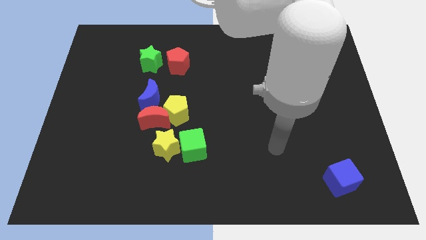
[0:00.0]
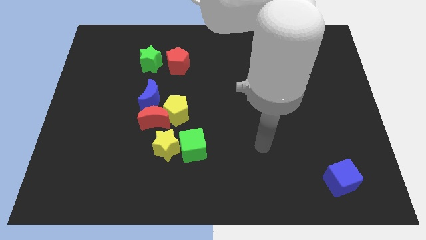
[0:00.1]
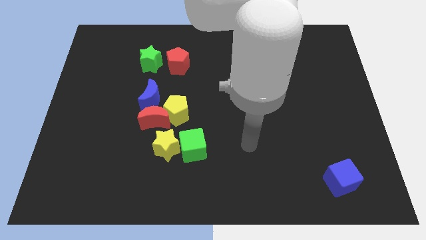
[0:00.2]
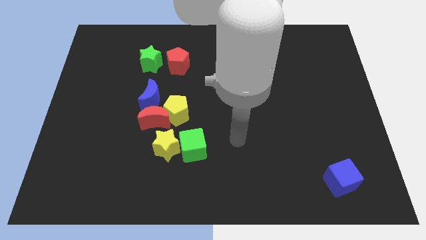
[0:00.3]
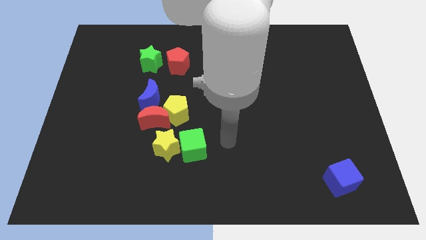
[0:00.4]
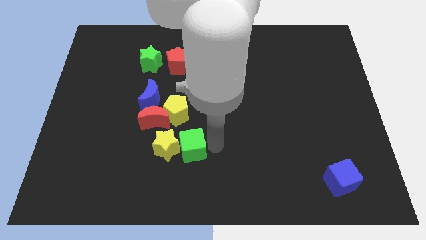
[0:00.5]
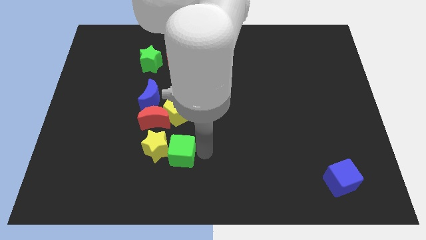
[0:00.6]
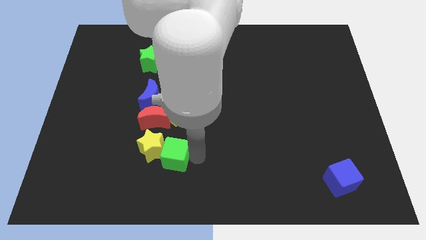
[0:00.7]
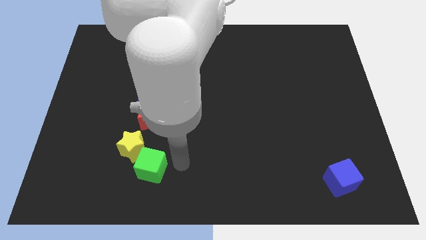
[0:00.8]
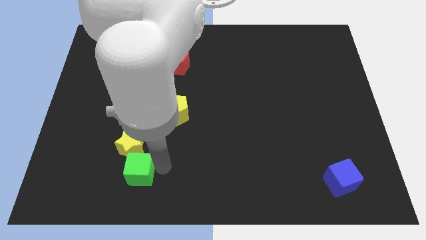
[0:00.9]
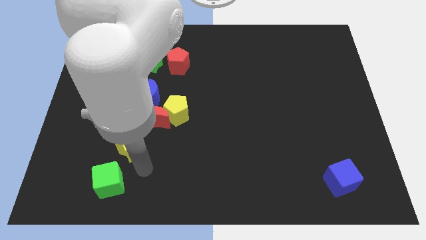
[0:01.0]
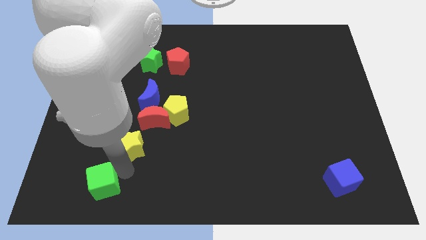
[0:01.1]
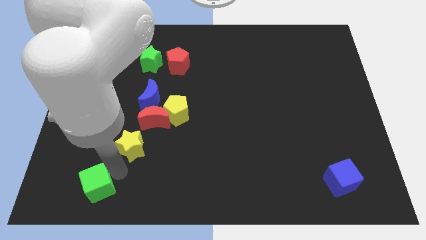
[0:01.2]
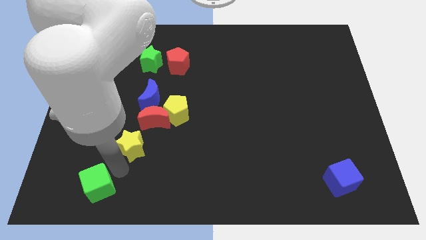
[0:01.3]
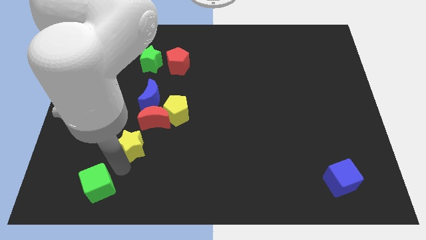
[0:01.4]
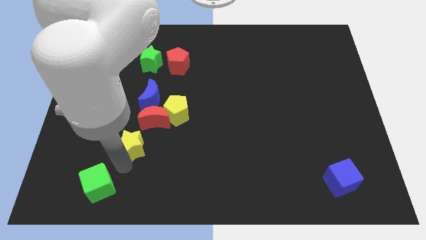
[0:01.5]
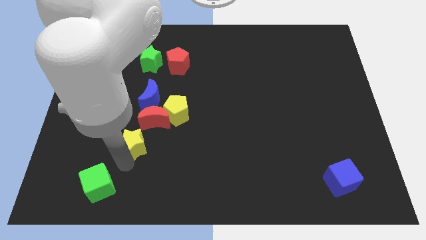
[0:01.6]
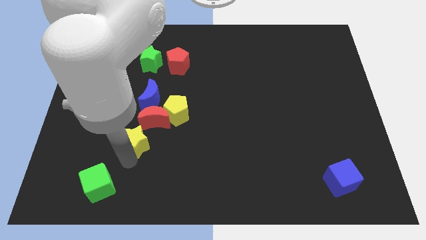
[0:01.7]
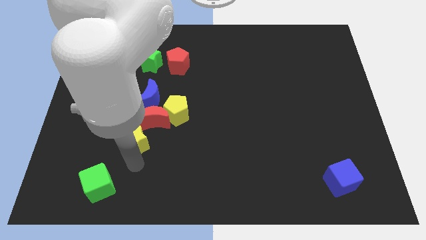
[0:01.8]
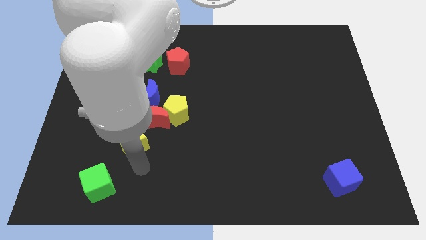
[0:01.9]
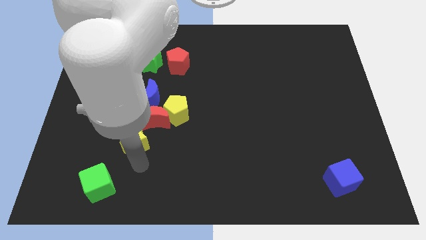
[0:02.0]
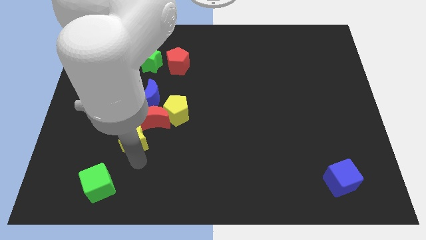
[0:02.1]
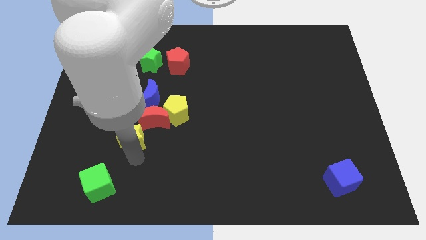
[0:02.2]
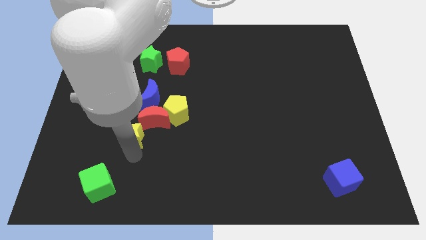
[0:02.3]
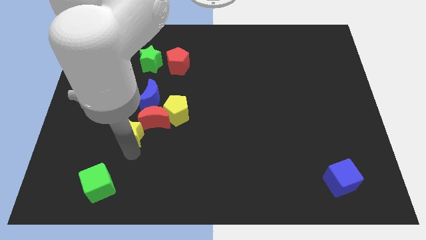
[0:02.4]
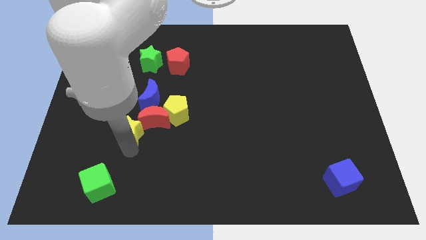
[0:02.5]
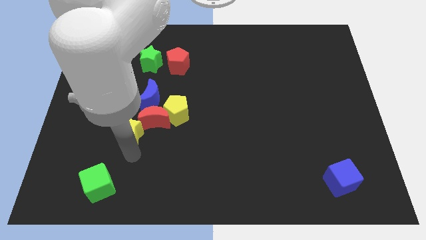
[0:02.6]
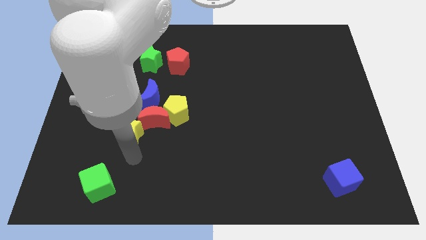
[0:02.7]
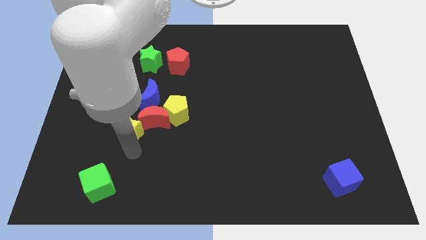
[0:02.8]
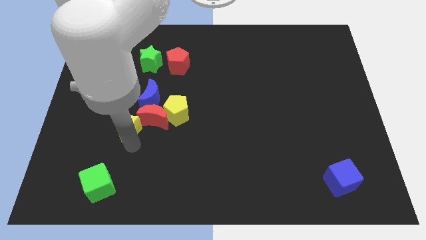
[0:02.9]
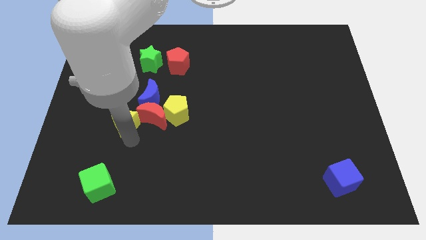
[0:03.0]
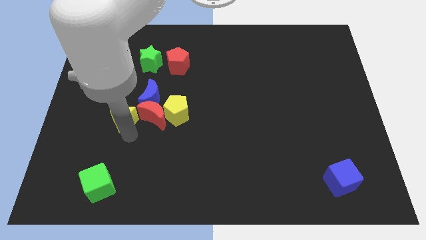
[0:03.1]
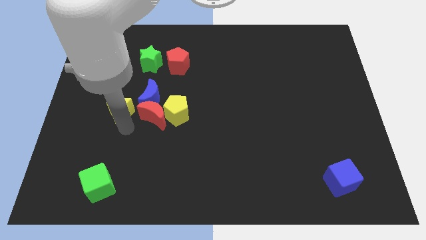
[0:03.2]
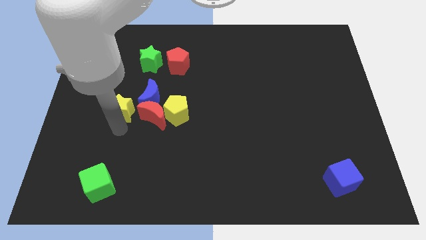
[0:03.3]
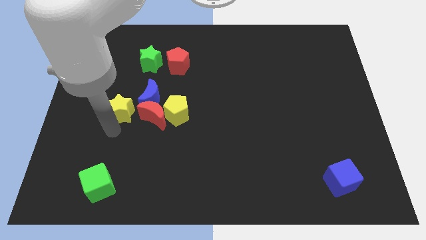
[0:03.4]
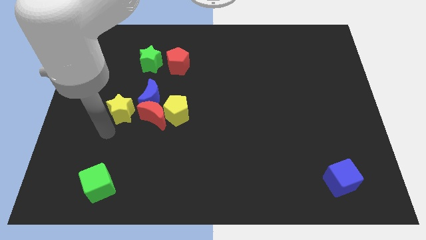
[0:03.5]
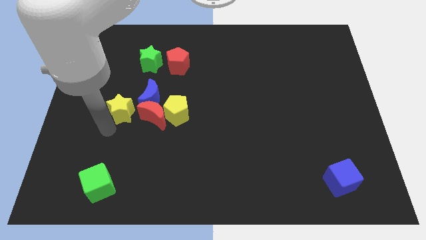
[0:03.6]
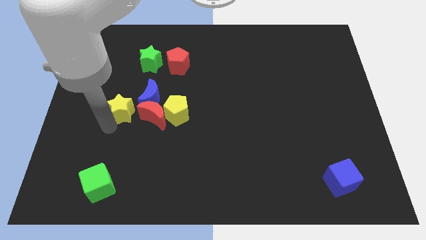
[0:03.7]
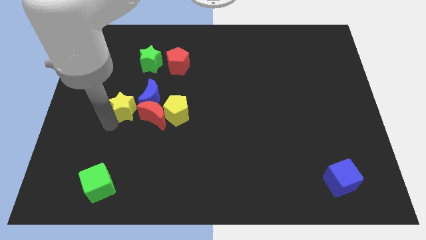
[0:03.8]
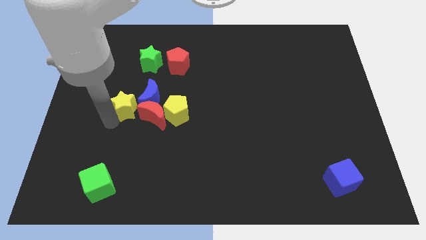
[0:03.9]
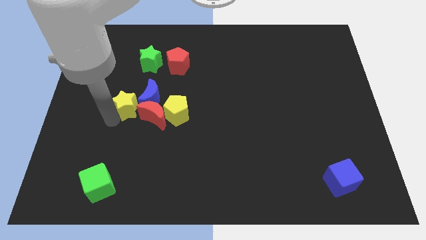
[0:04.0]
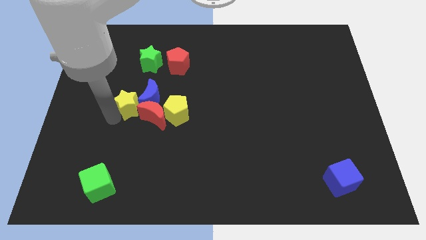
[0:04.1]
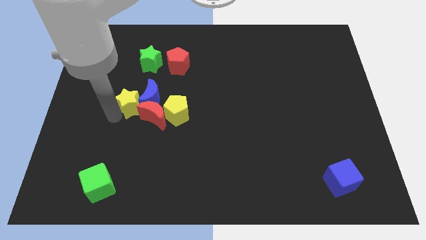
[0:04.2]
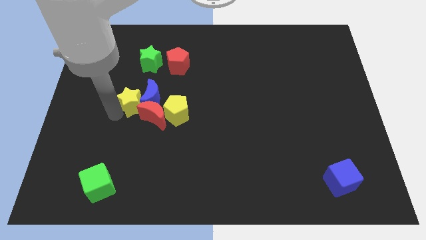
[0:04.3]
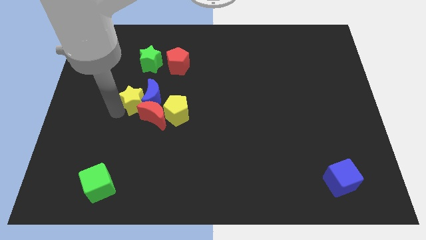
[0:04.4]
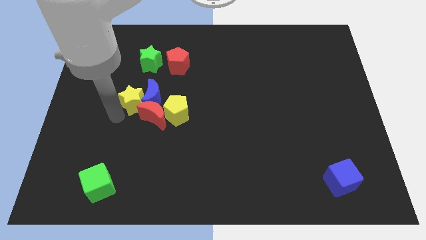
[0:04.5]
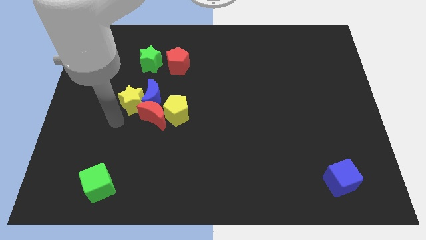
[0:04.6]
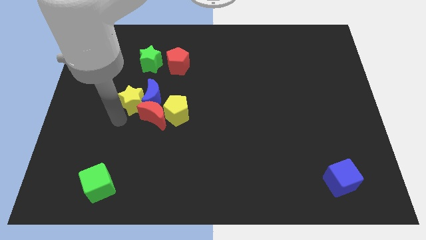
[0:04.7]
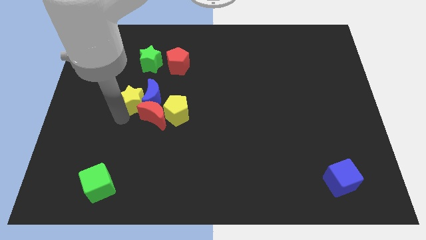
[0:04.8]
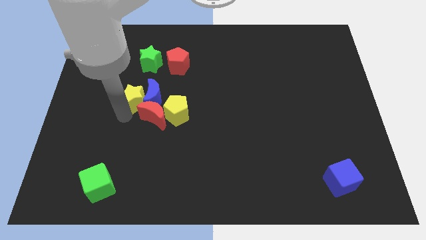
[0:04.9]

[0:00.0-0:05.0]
push the yellow star to the top left side of the yellow pentagon

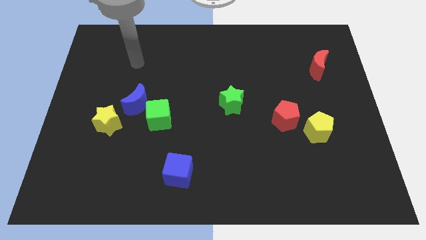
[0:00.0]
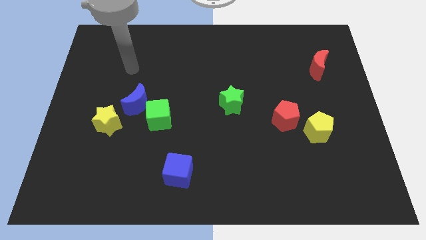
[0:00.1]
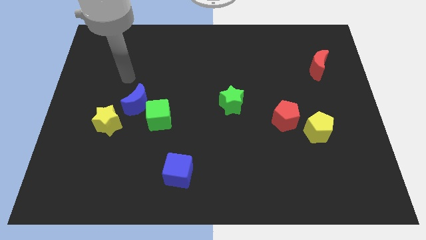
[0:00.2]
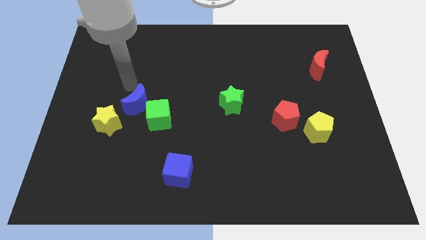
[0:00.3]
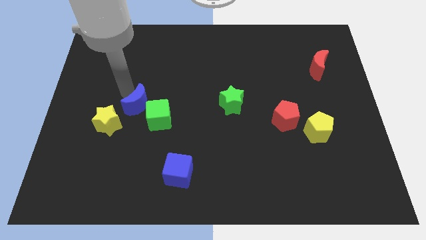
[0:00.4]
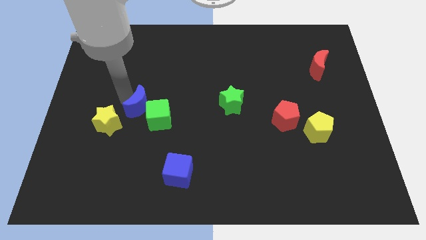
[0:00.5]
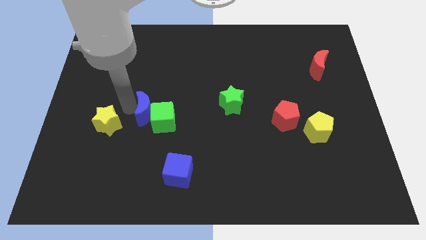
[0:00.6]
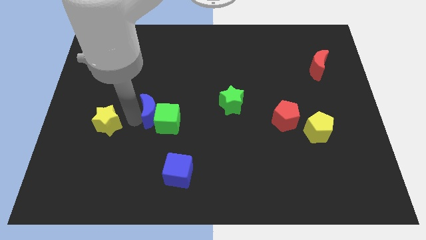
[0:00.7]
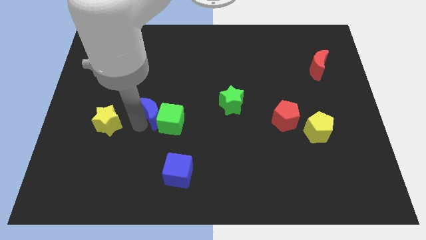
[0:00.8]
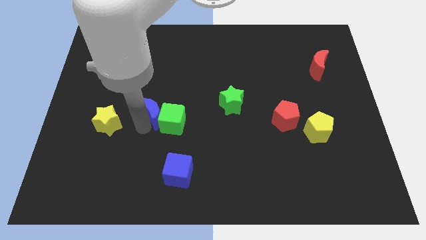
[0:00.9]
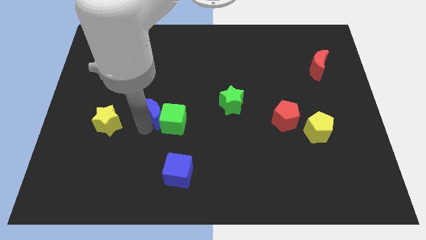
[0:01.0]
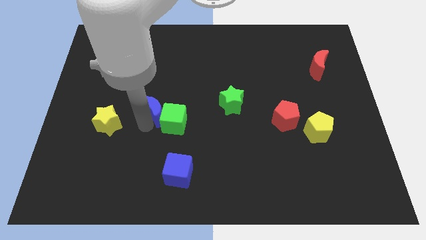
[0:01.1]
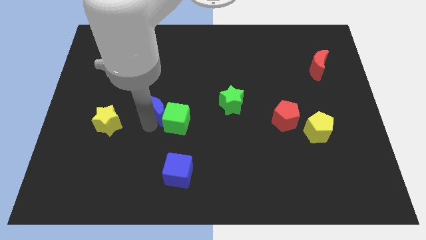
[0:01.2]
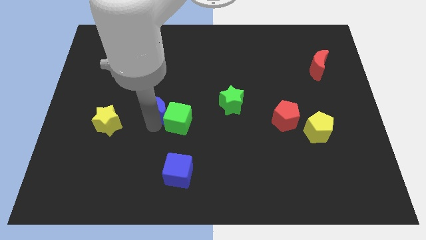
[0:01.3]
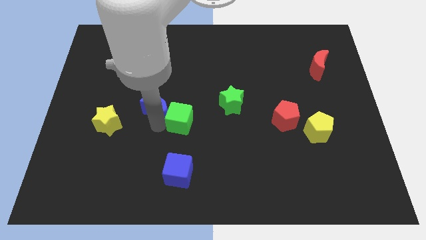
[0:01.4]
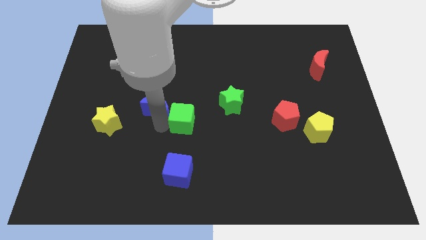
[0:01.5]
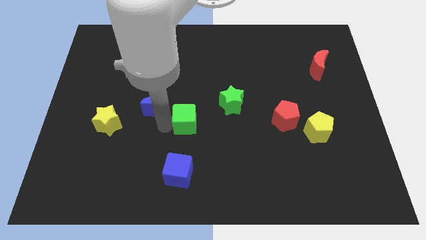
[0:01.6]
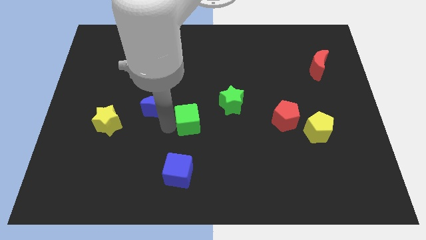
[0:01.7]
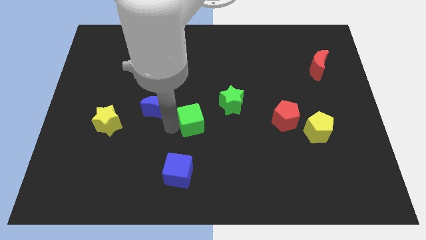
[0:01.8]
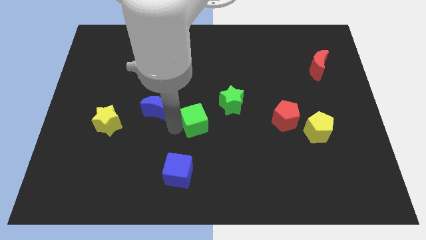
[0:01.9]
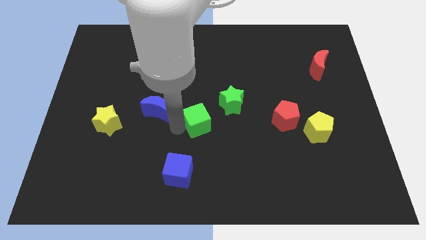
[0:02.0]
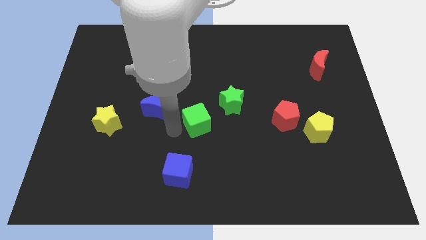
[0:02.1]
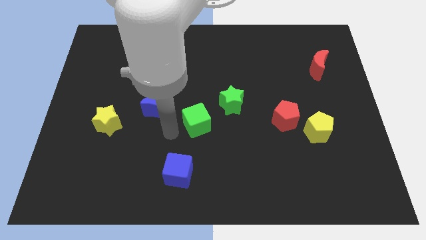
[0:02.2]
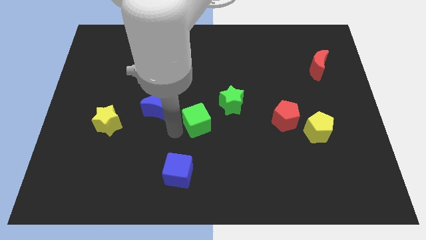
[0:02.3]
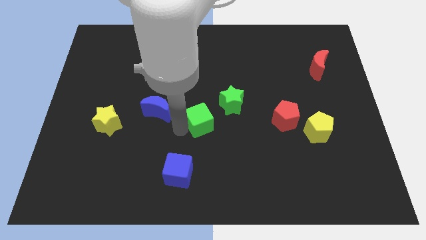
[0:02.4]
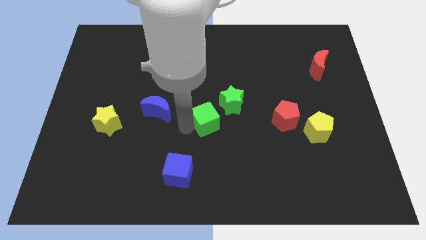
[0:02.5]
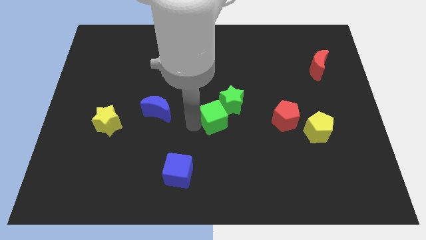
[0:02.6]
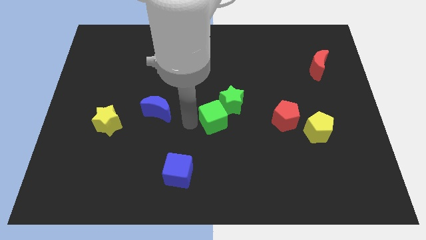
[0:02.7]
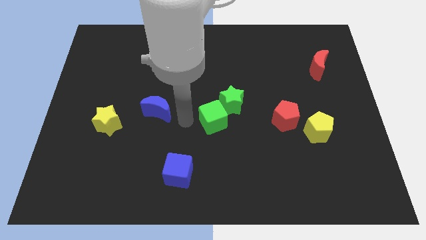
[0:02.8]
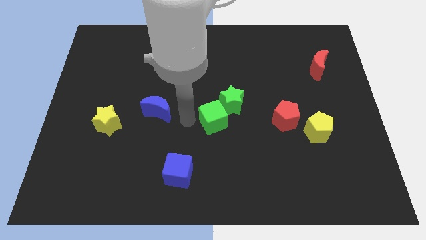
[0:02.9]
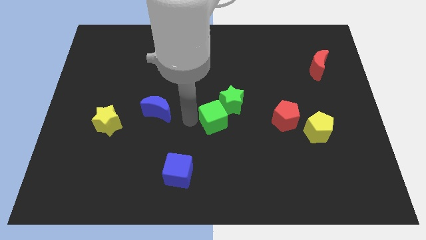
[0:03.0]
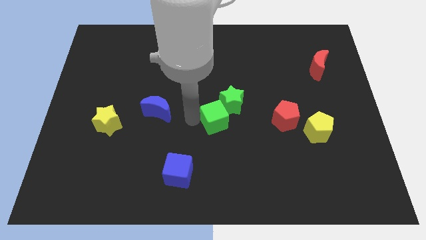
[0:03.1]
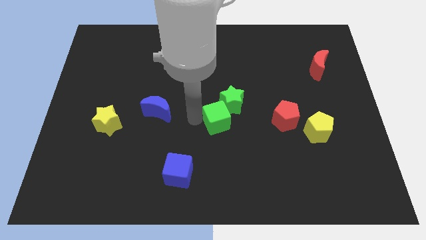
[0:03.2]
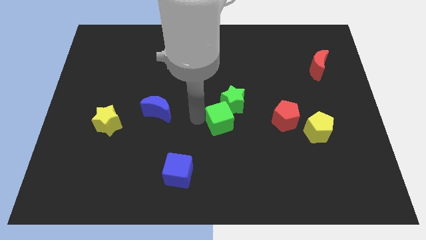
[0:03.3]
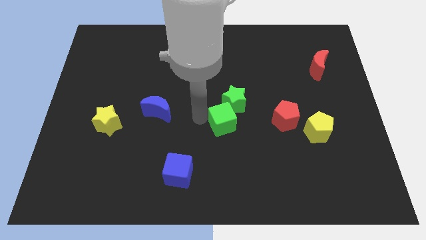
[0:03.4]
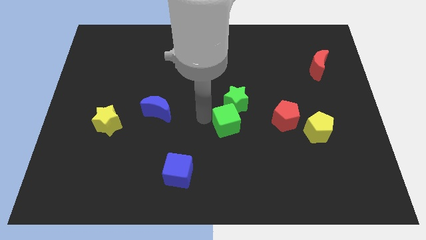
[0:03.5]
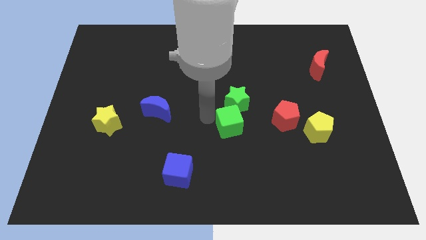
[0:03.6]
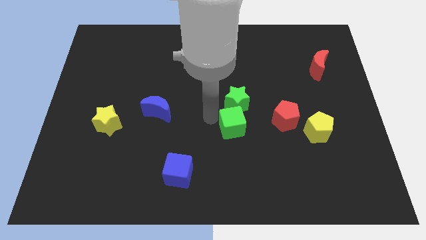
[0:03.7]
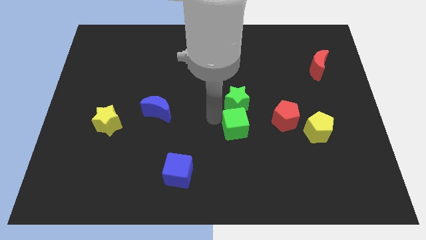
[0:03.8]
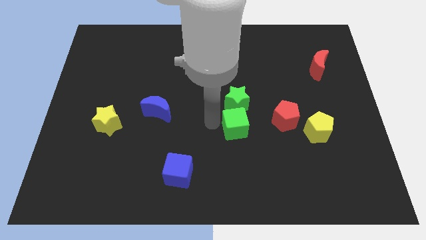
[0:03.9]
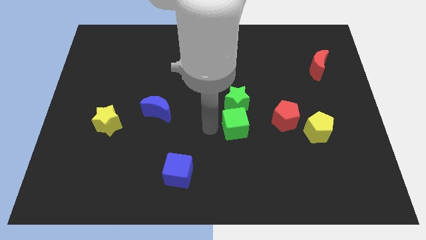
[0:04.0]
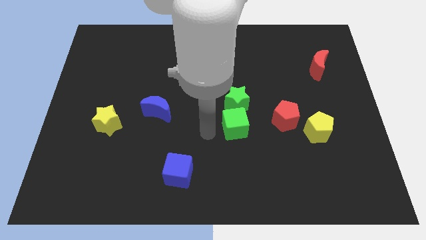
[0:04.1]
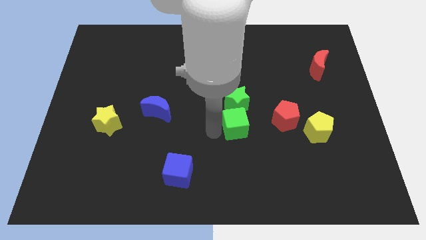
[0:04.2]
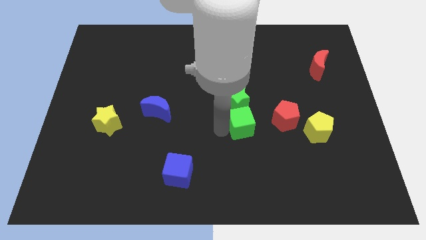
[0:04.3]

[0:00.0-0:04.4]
push the green cube to the bottom right side of the green star
